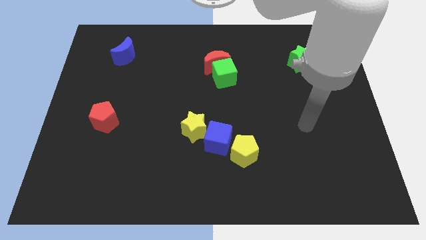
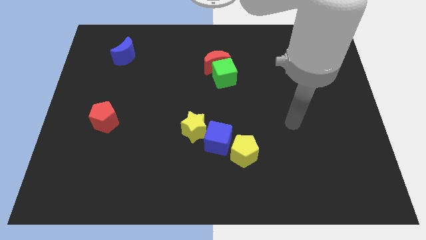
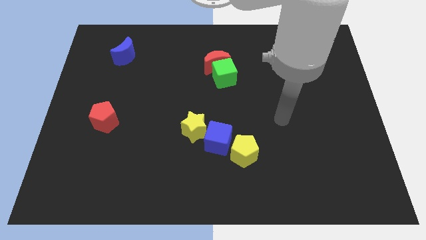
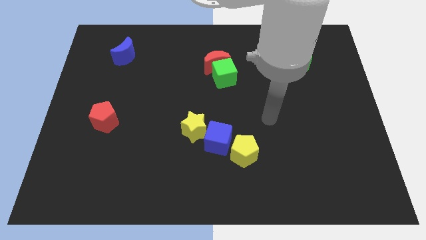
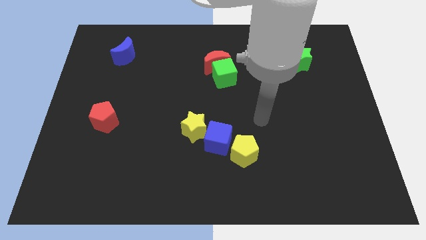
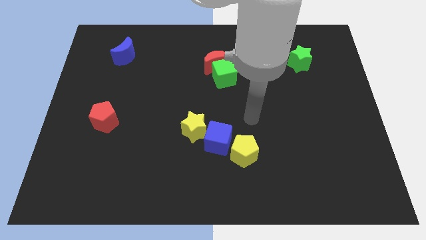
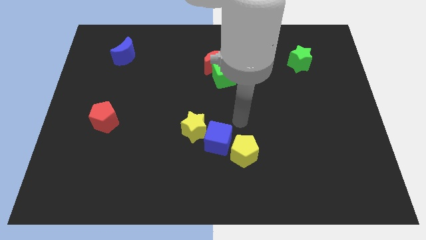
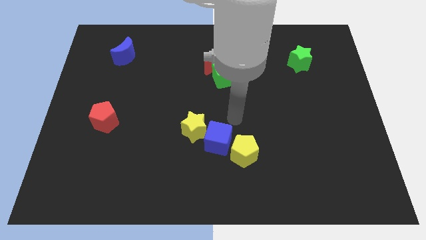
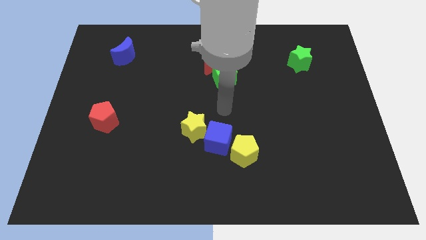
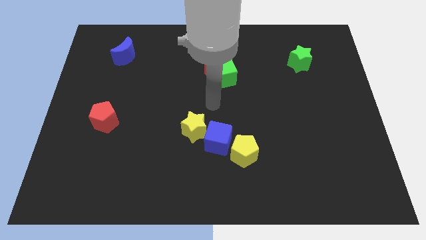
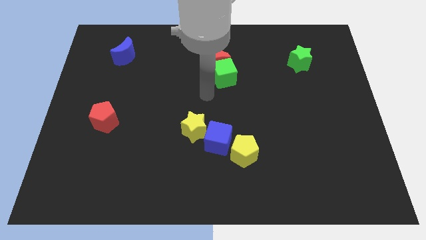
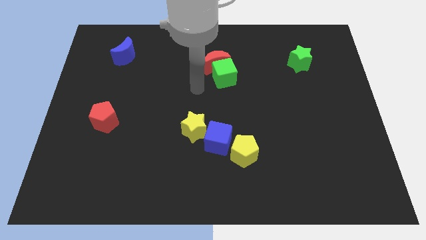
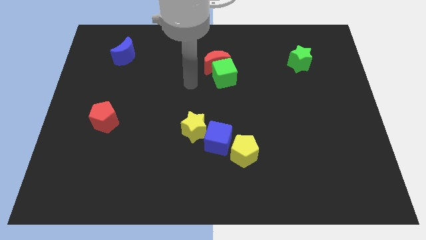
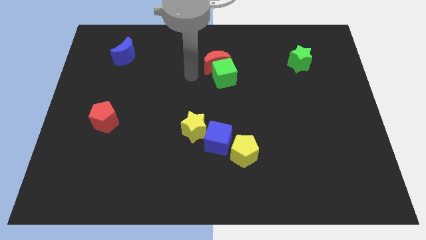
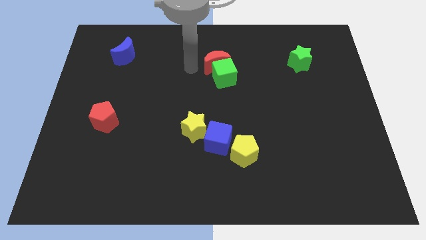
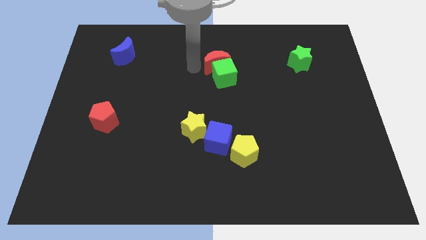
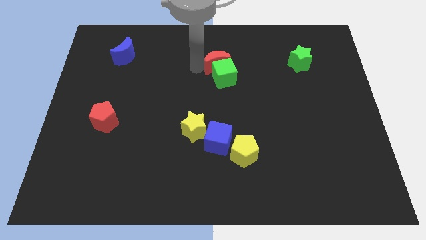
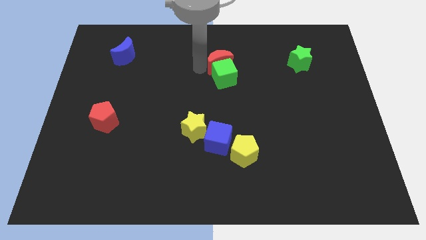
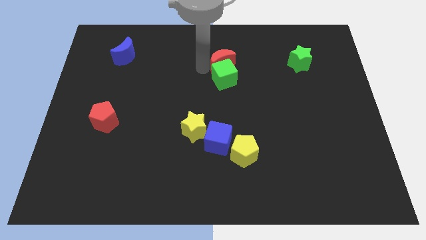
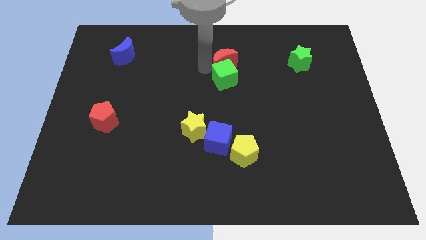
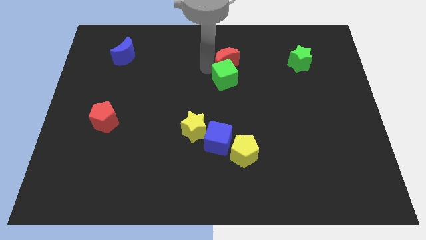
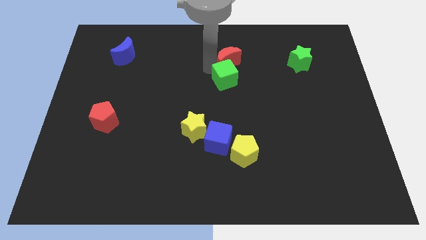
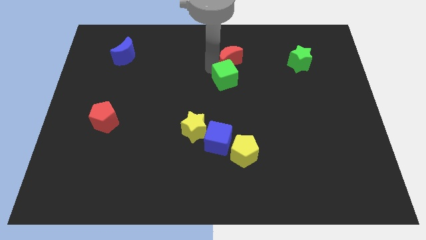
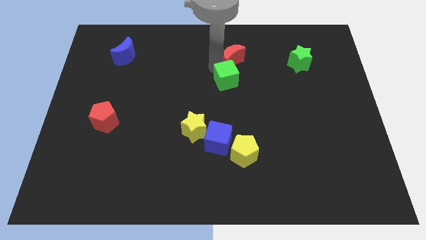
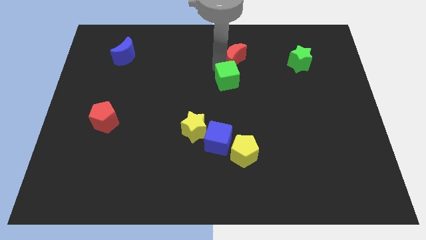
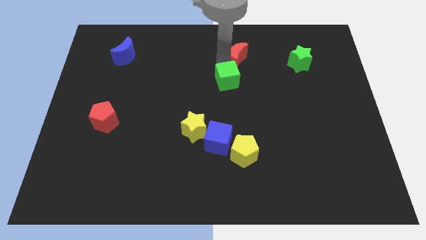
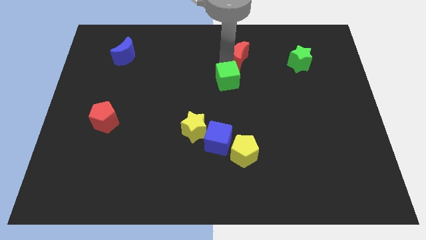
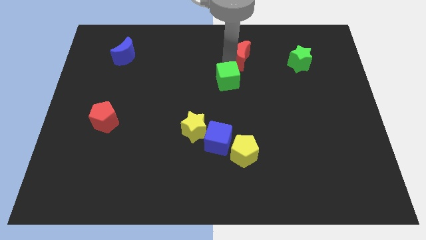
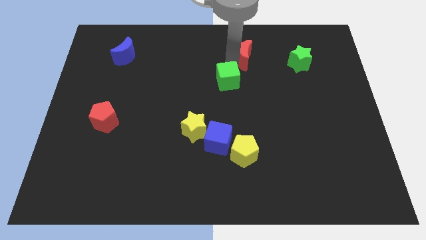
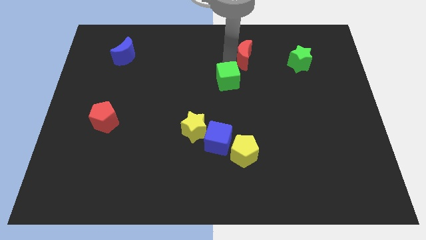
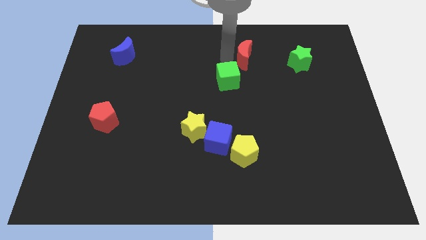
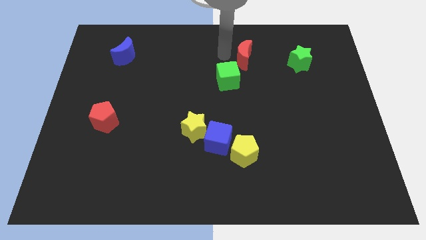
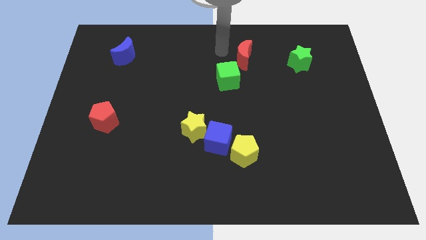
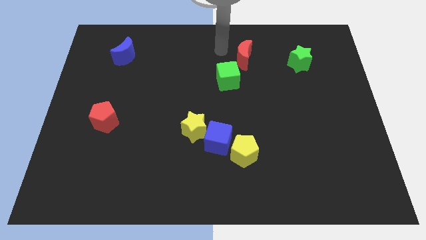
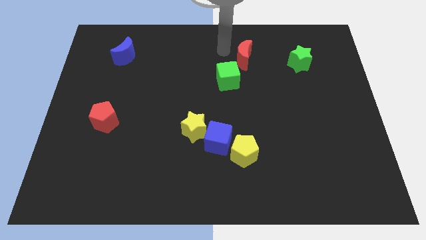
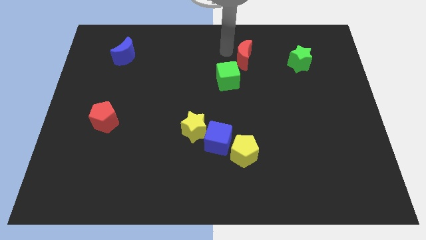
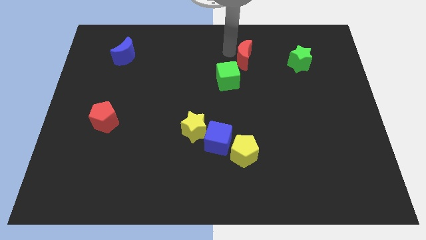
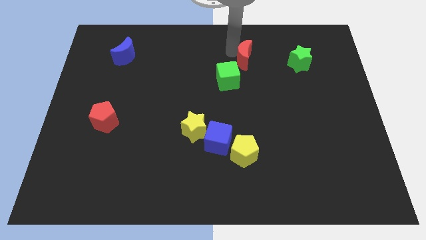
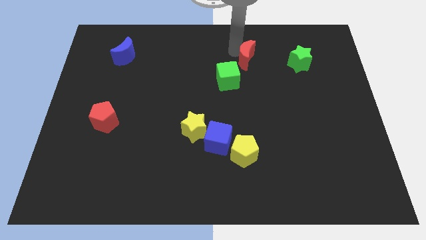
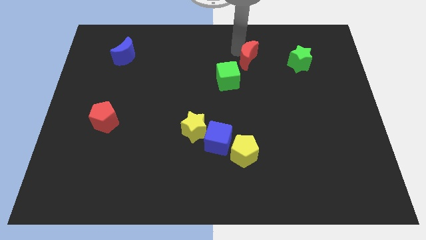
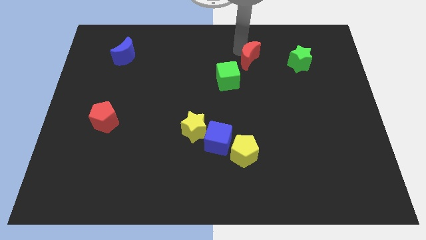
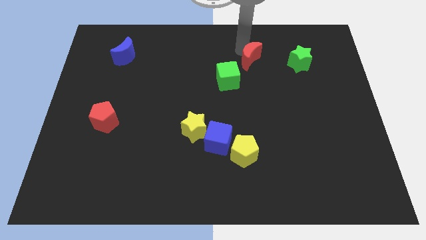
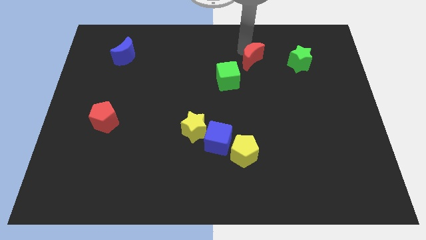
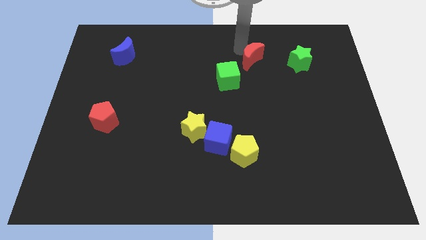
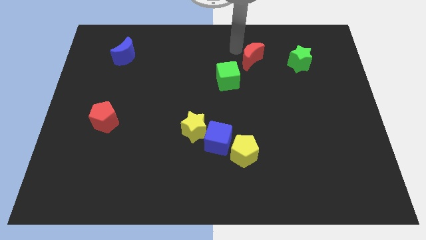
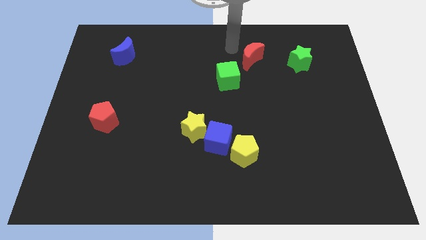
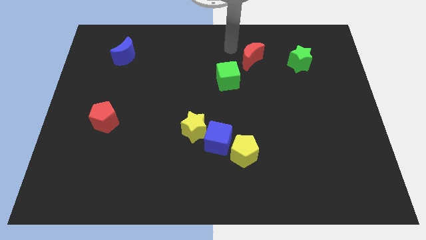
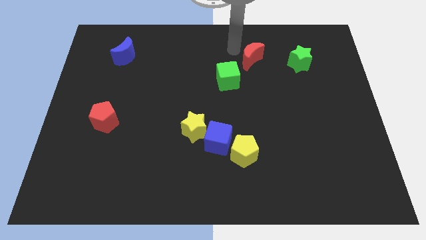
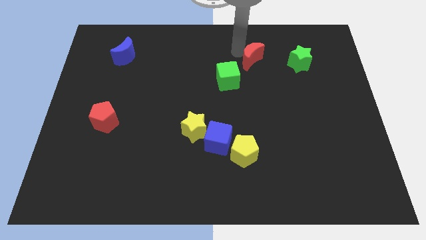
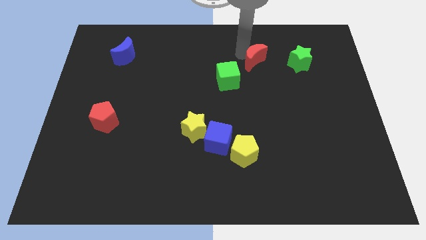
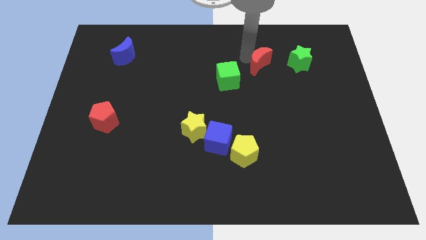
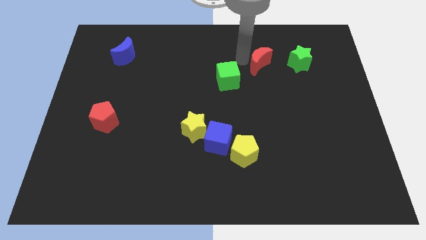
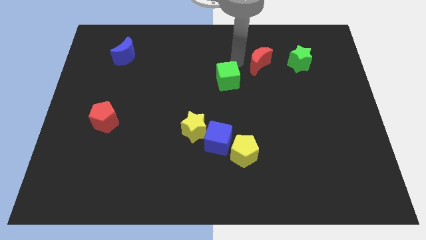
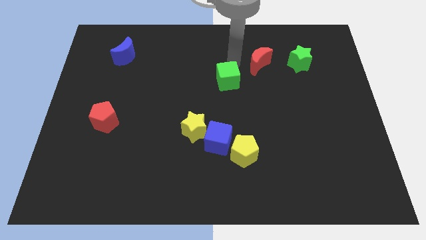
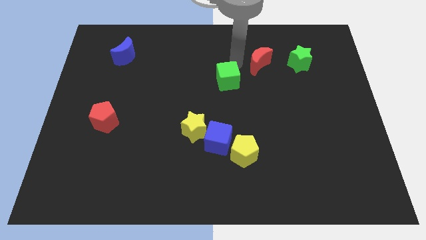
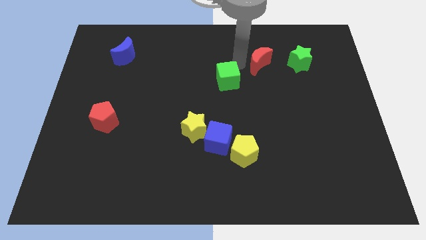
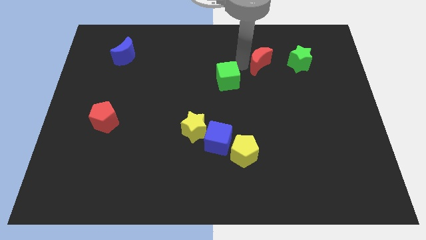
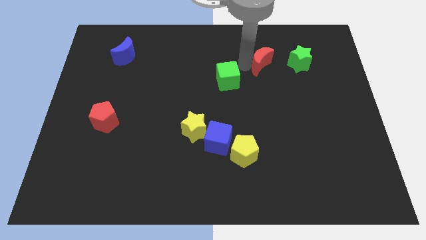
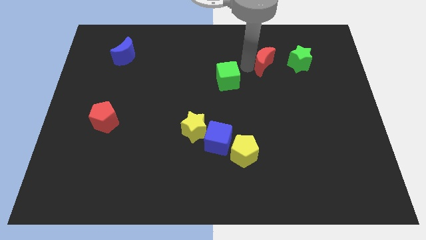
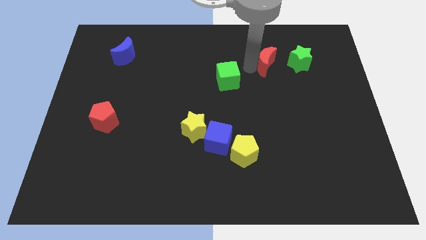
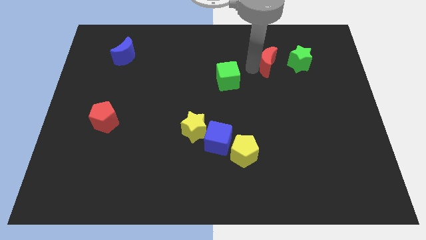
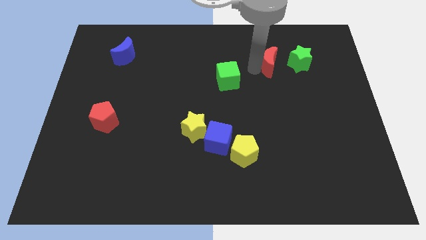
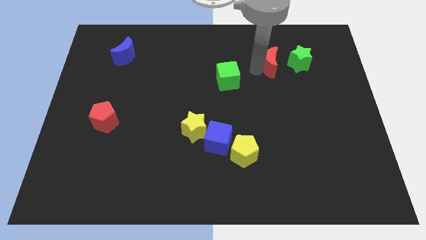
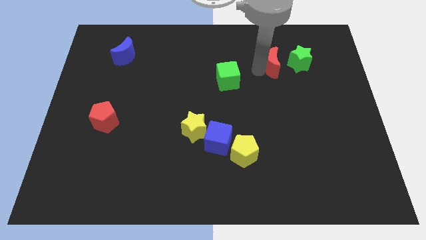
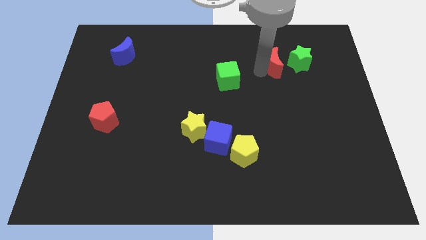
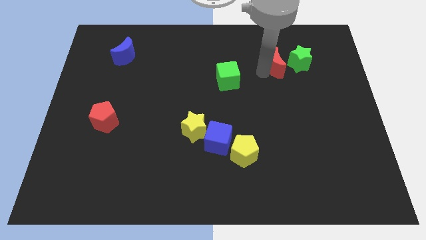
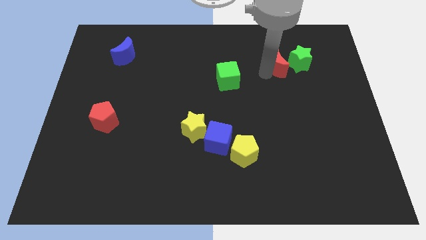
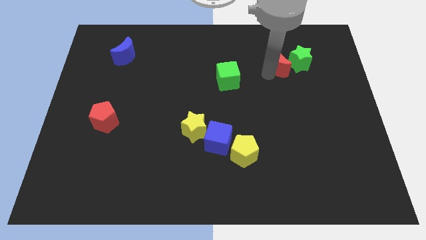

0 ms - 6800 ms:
slide the red moon next to the green star
